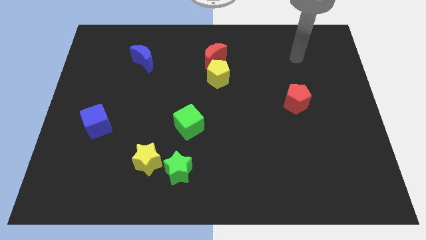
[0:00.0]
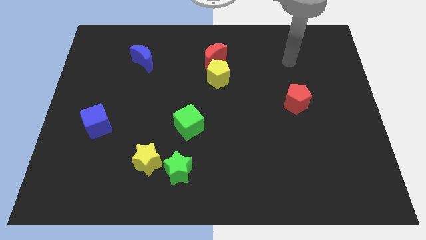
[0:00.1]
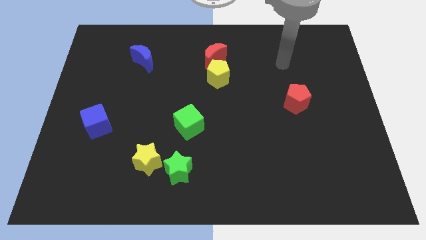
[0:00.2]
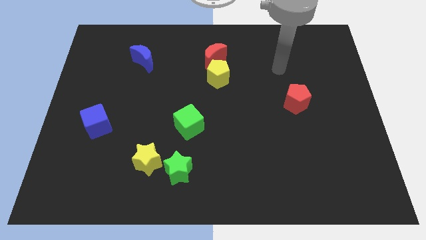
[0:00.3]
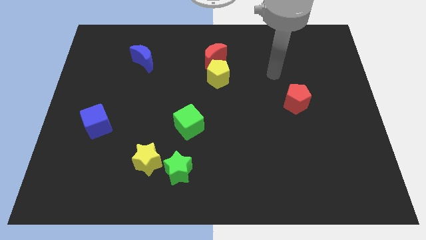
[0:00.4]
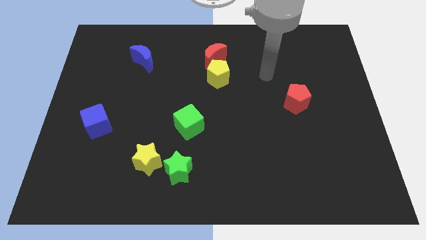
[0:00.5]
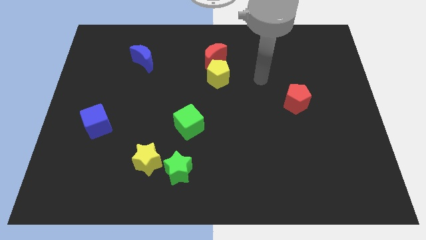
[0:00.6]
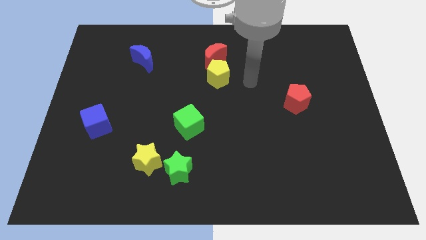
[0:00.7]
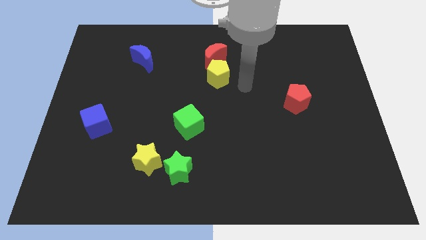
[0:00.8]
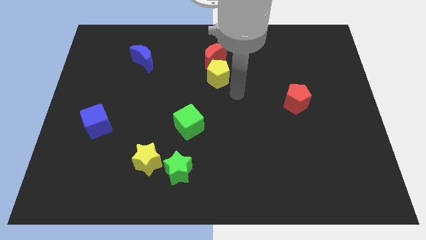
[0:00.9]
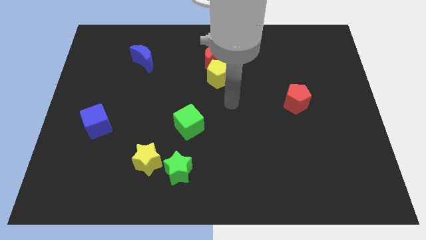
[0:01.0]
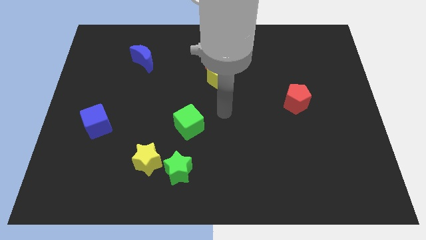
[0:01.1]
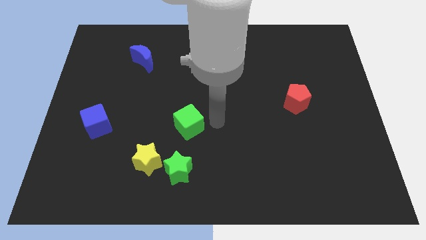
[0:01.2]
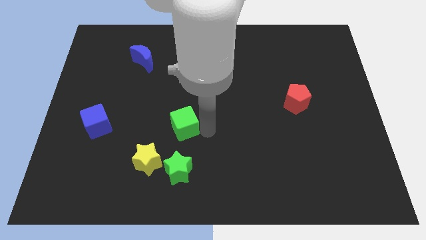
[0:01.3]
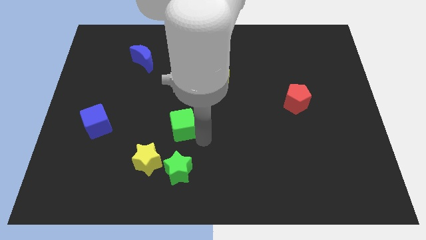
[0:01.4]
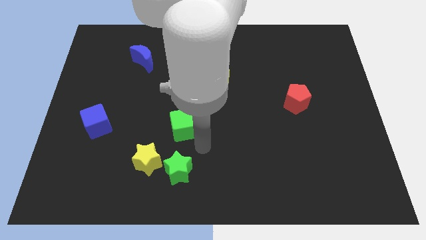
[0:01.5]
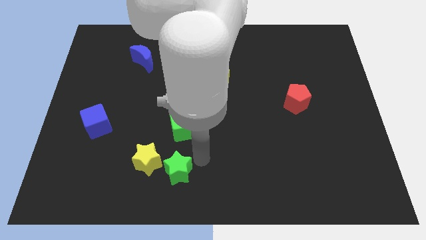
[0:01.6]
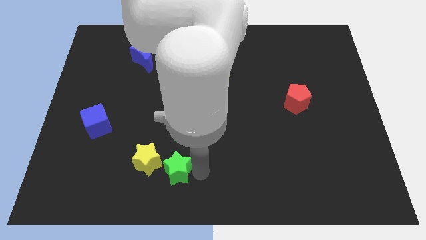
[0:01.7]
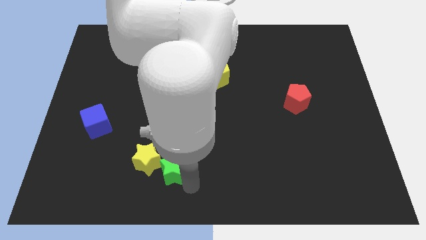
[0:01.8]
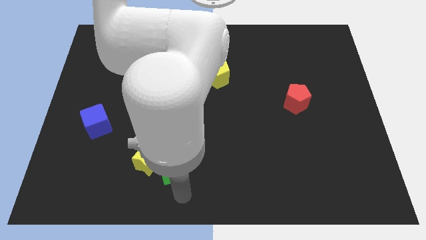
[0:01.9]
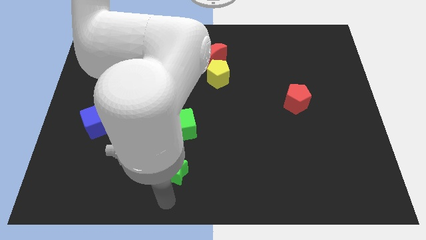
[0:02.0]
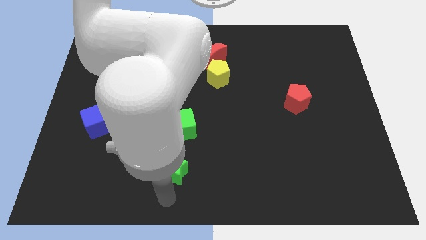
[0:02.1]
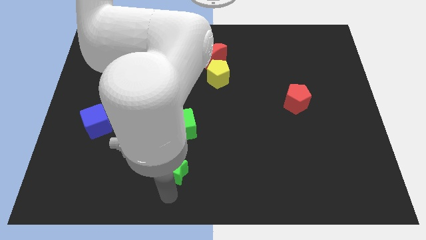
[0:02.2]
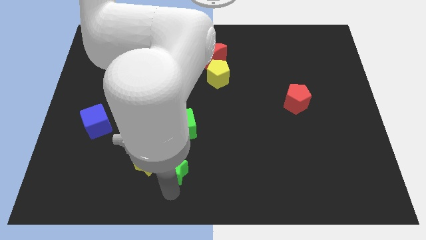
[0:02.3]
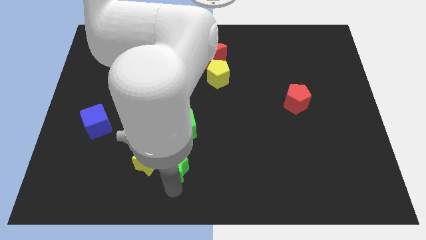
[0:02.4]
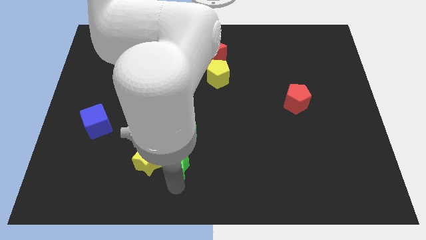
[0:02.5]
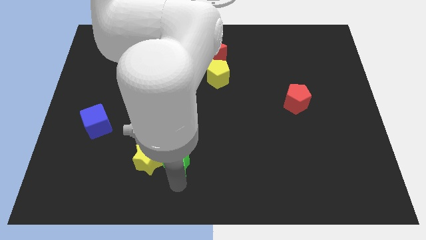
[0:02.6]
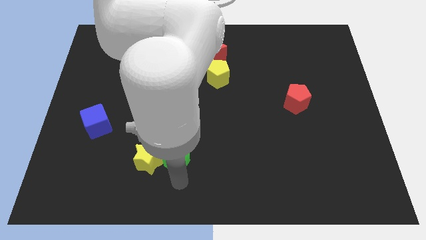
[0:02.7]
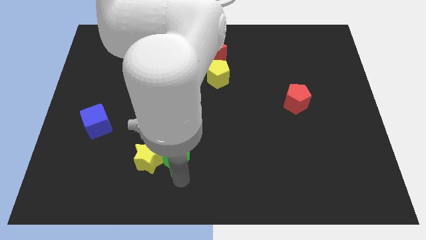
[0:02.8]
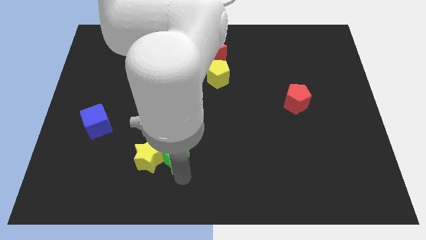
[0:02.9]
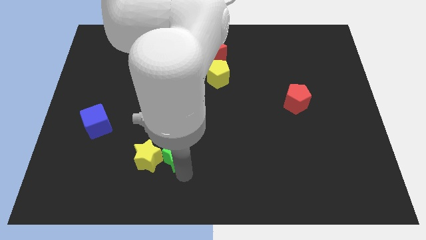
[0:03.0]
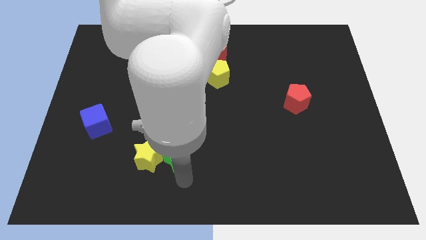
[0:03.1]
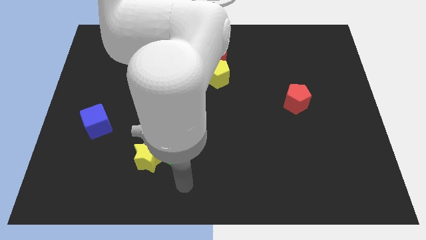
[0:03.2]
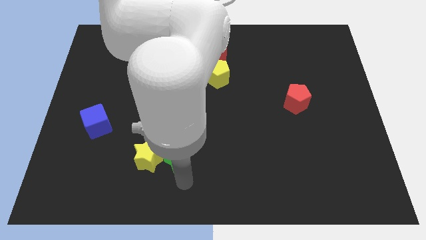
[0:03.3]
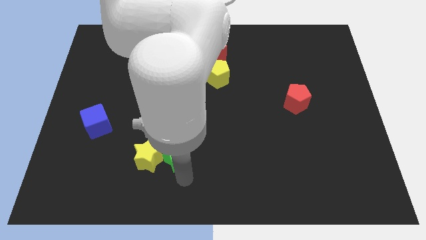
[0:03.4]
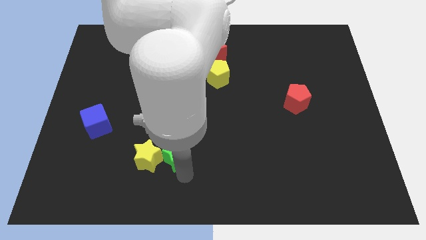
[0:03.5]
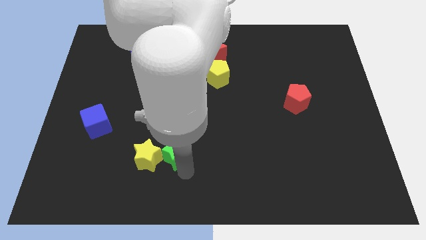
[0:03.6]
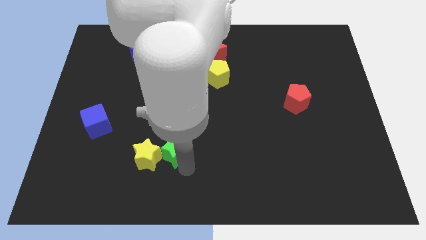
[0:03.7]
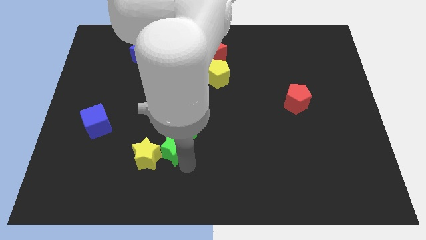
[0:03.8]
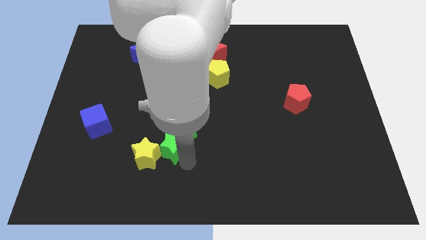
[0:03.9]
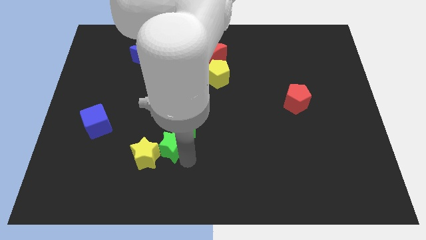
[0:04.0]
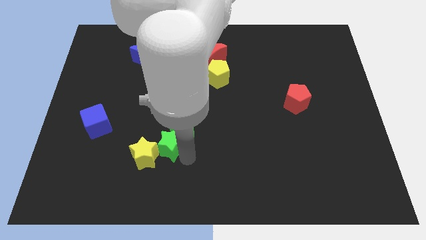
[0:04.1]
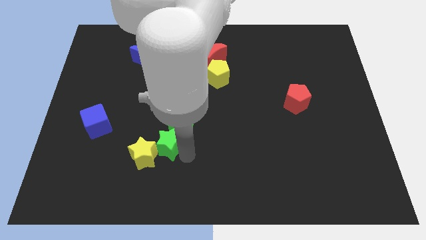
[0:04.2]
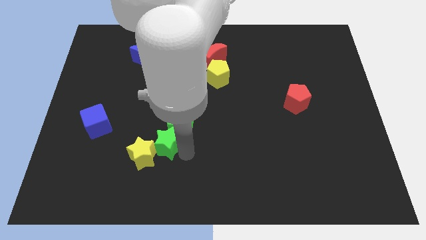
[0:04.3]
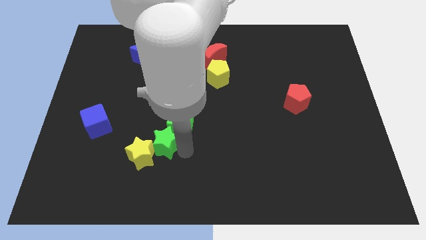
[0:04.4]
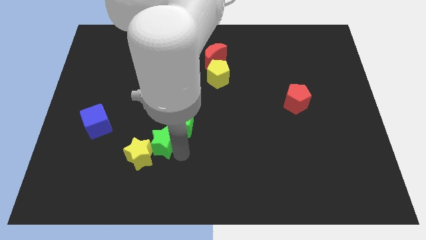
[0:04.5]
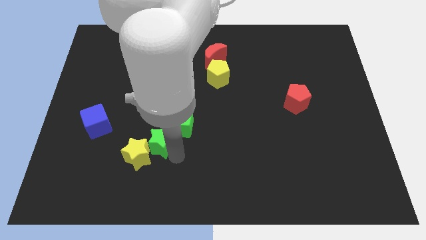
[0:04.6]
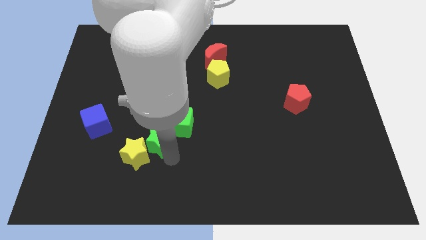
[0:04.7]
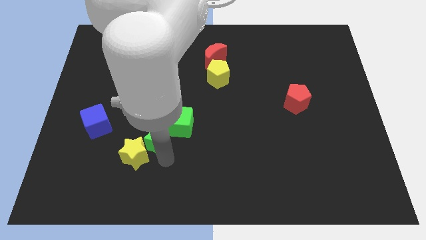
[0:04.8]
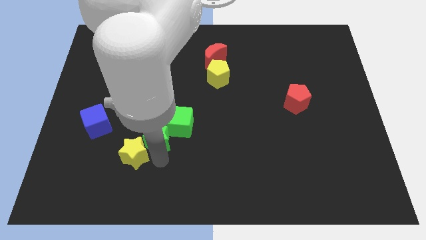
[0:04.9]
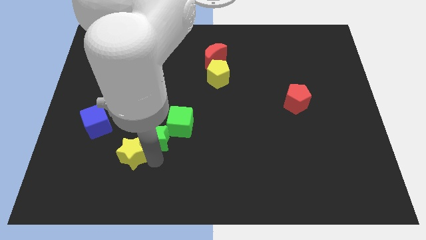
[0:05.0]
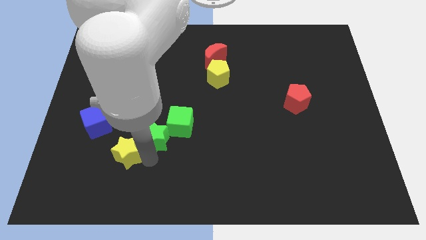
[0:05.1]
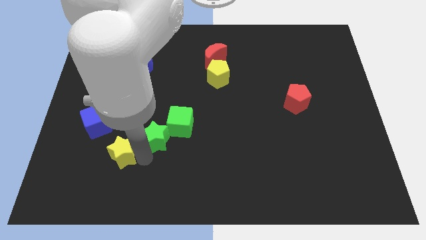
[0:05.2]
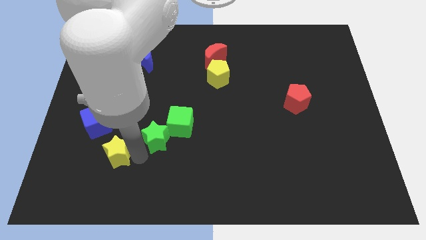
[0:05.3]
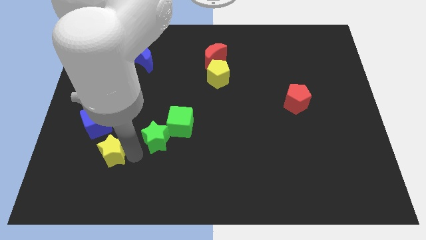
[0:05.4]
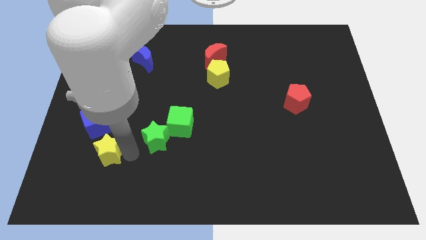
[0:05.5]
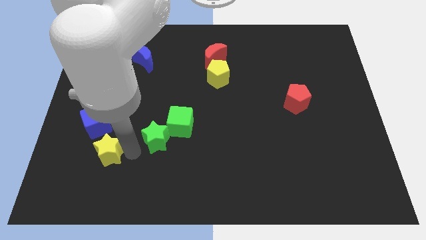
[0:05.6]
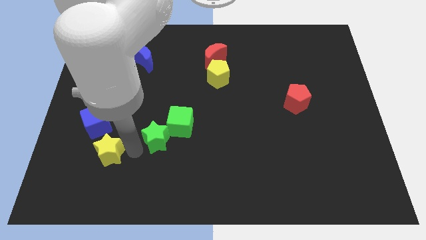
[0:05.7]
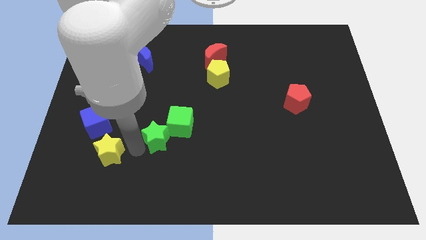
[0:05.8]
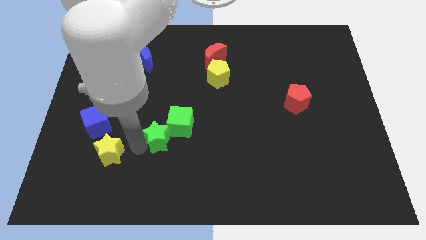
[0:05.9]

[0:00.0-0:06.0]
slightly slide the green star up

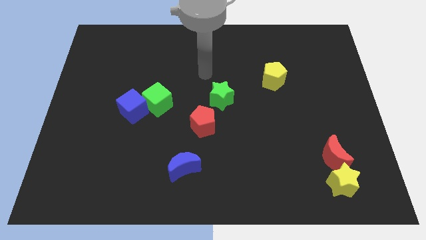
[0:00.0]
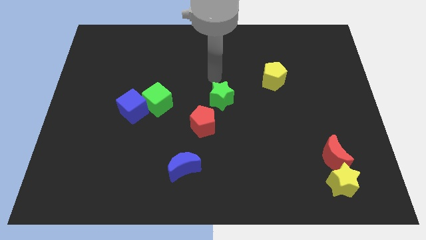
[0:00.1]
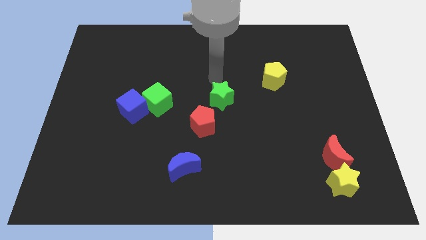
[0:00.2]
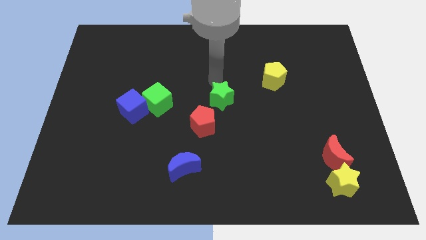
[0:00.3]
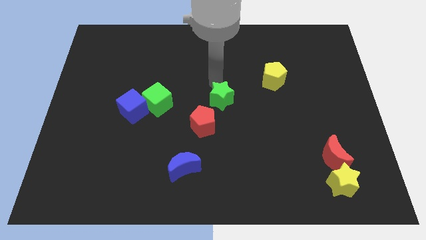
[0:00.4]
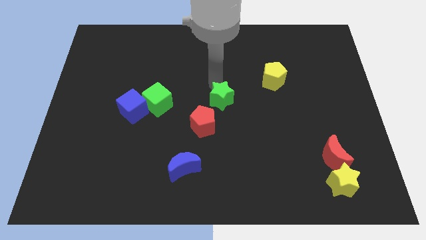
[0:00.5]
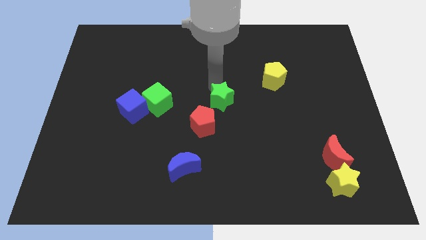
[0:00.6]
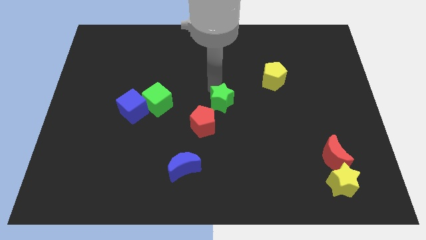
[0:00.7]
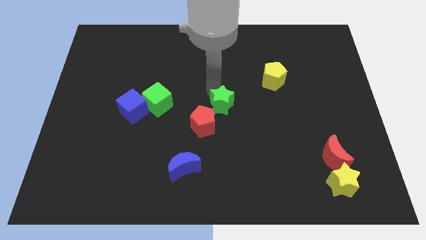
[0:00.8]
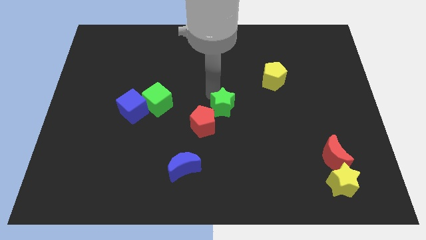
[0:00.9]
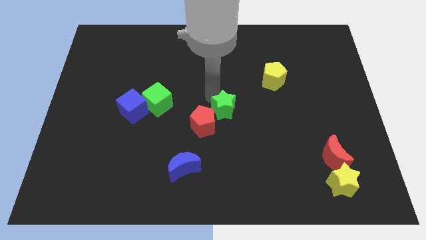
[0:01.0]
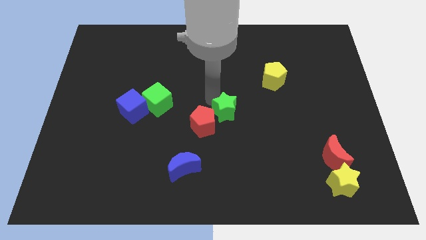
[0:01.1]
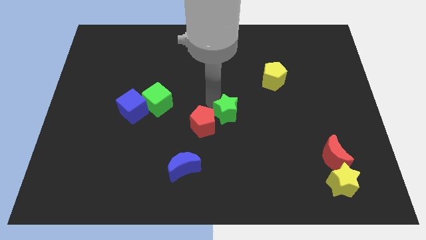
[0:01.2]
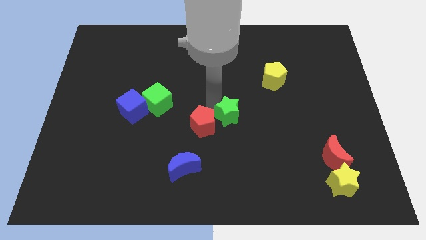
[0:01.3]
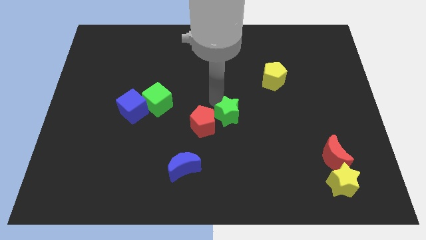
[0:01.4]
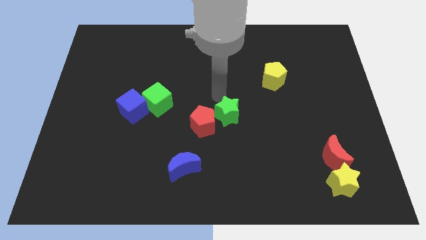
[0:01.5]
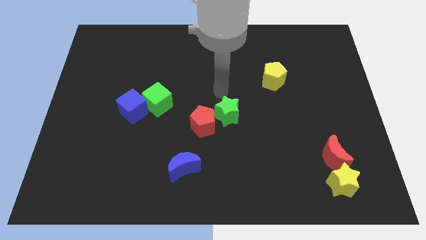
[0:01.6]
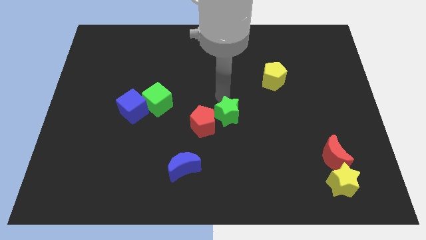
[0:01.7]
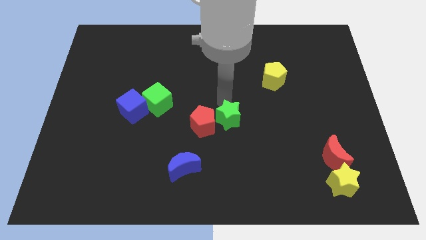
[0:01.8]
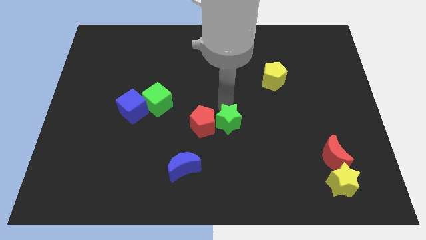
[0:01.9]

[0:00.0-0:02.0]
slightly push the green star downwards
